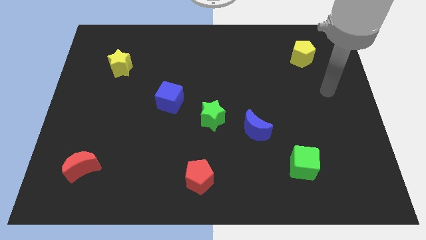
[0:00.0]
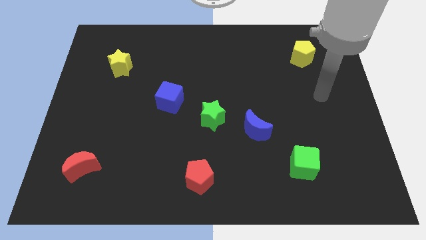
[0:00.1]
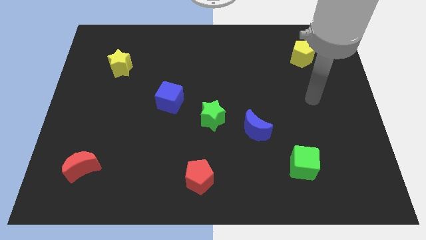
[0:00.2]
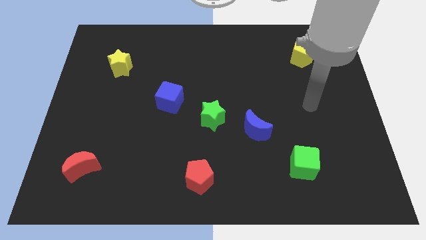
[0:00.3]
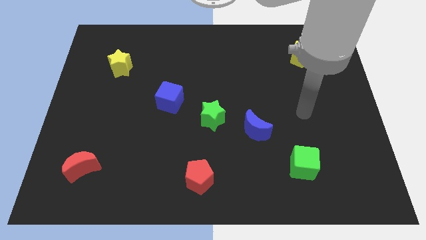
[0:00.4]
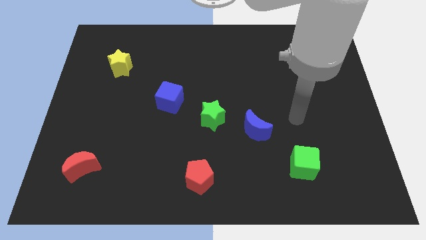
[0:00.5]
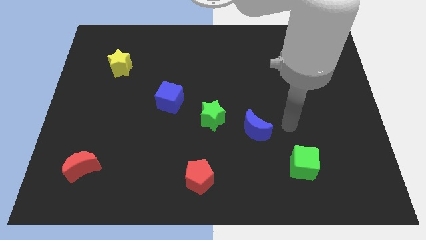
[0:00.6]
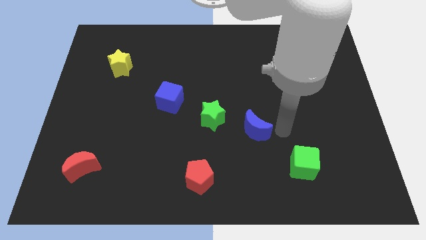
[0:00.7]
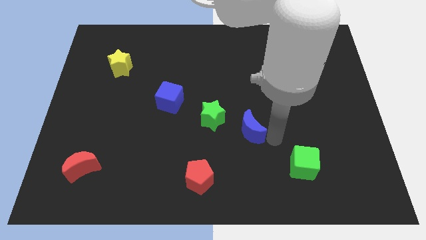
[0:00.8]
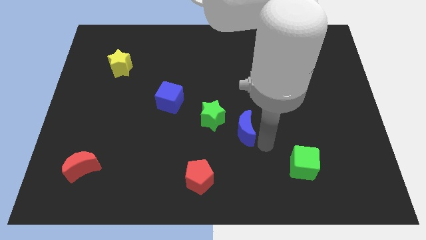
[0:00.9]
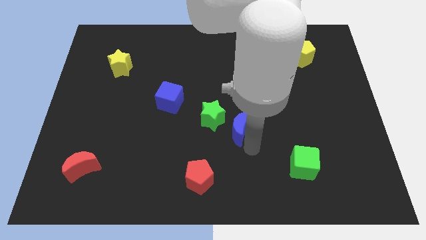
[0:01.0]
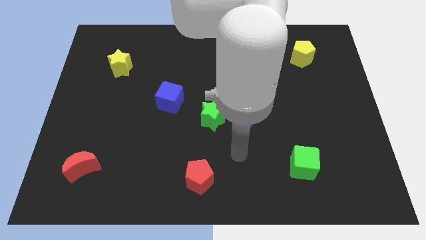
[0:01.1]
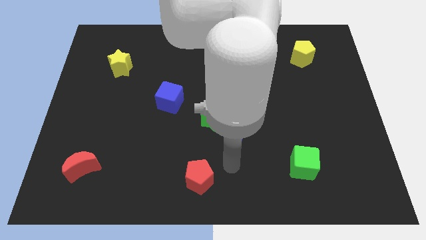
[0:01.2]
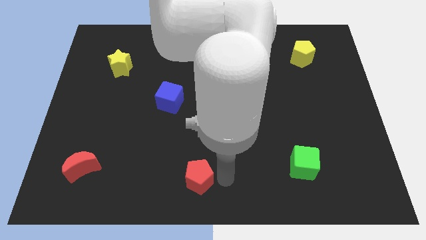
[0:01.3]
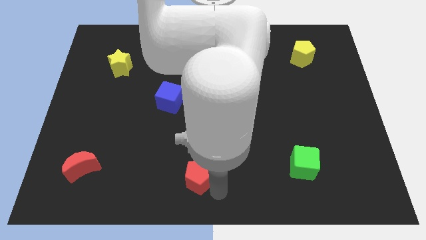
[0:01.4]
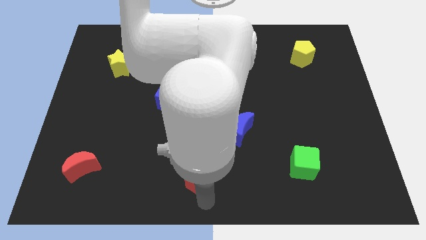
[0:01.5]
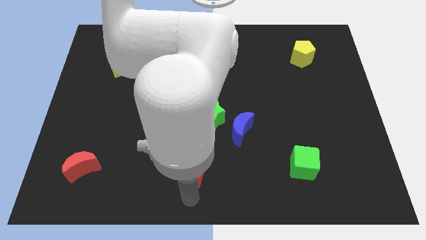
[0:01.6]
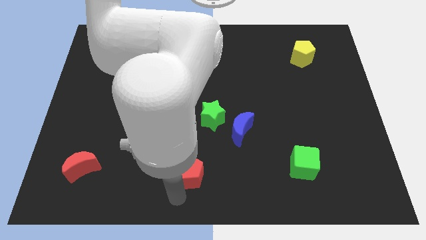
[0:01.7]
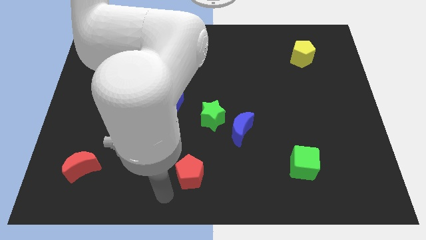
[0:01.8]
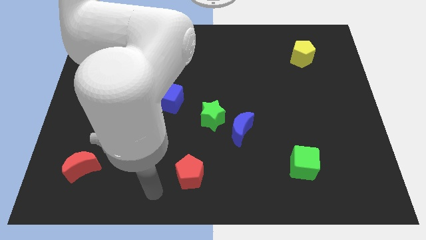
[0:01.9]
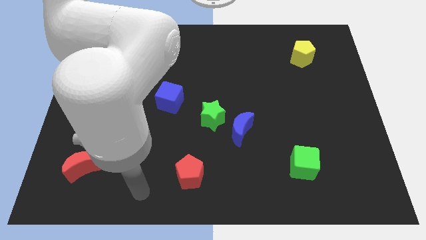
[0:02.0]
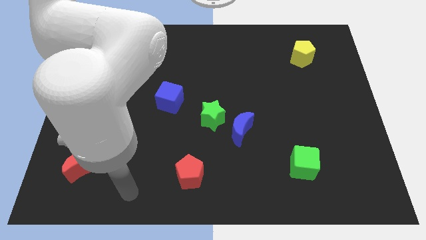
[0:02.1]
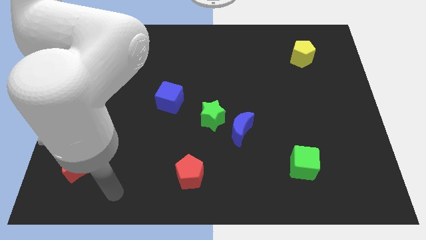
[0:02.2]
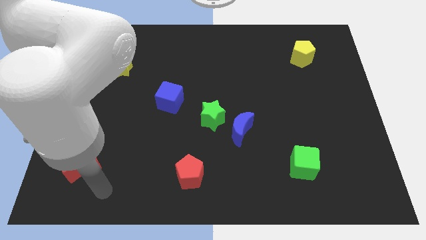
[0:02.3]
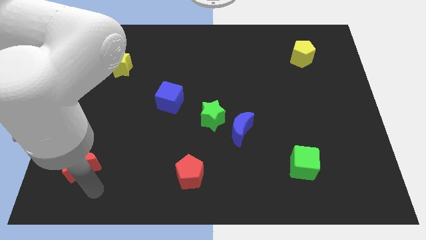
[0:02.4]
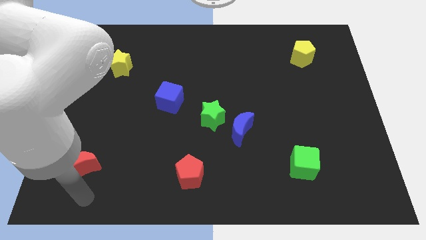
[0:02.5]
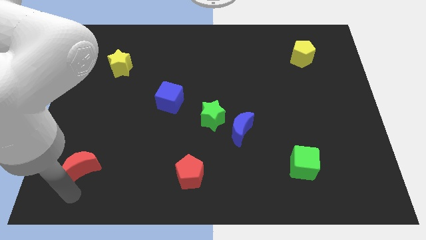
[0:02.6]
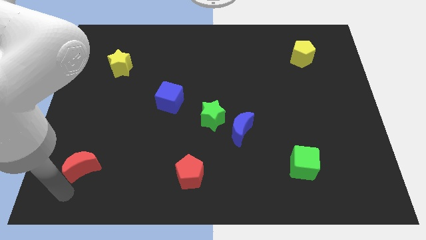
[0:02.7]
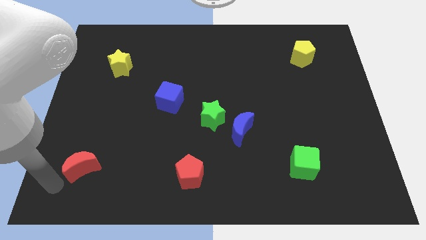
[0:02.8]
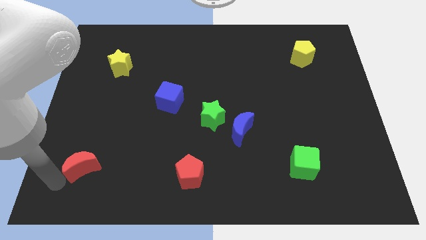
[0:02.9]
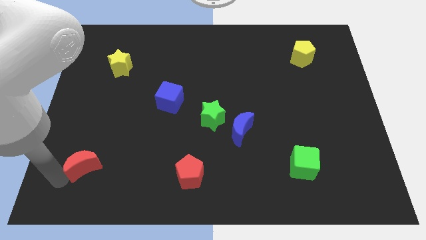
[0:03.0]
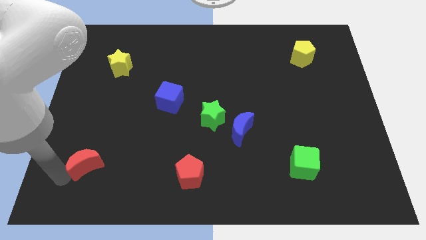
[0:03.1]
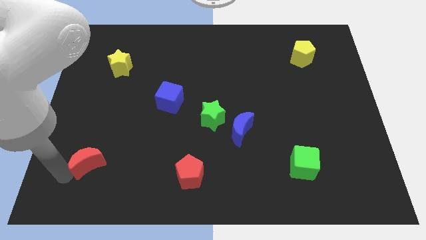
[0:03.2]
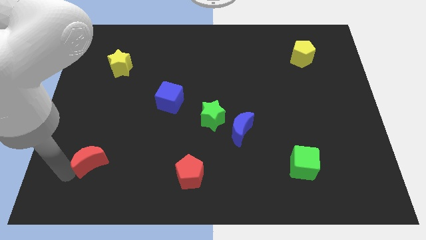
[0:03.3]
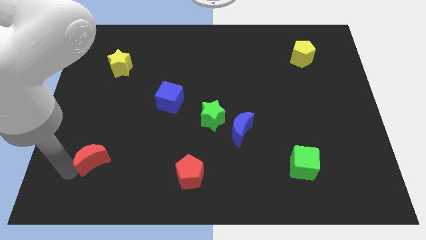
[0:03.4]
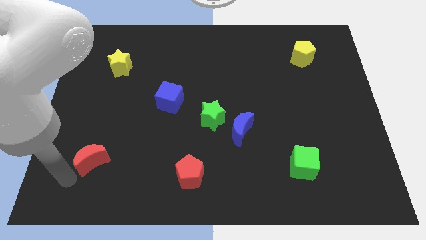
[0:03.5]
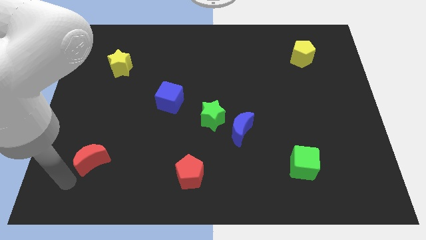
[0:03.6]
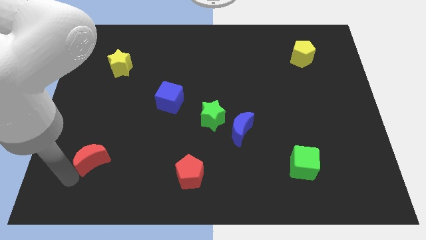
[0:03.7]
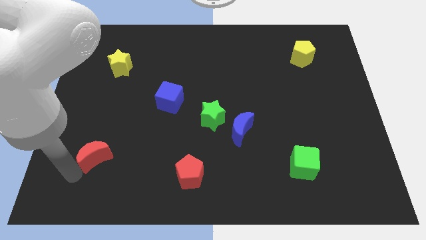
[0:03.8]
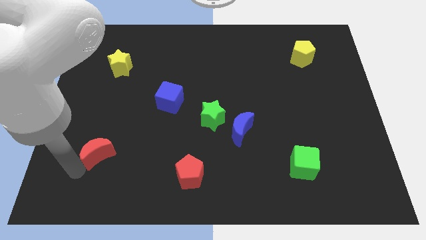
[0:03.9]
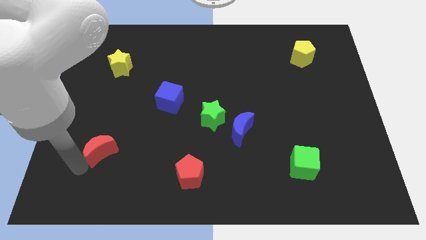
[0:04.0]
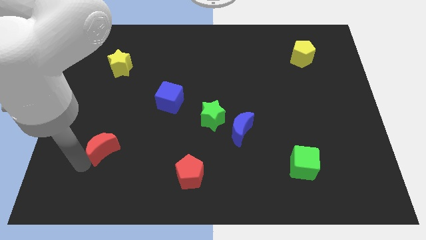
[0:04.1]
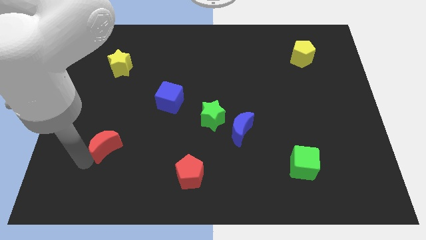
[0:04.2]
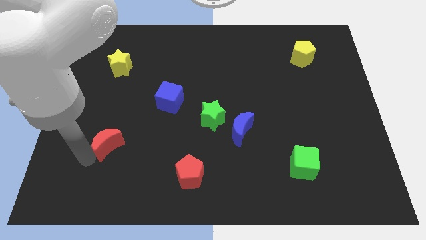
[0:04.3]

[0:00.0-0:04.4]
move the red moon a bit upwards and then to the right

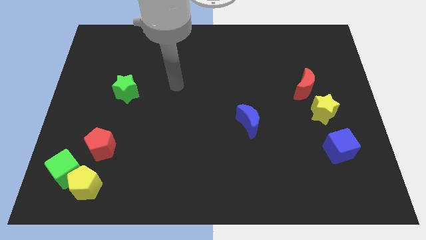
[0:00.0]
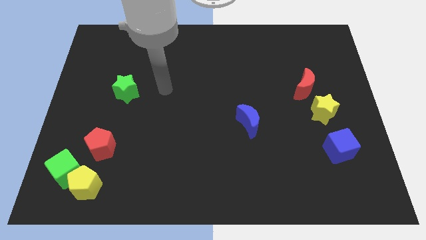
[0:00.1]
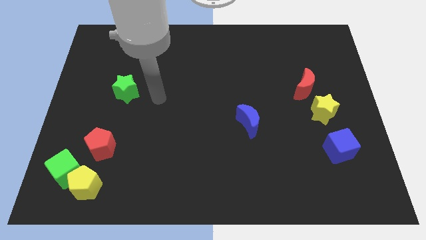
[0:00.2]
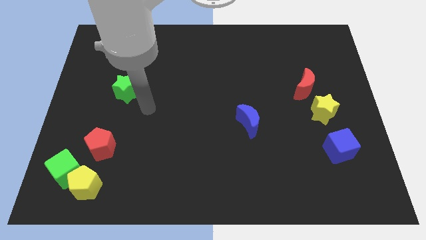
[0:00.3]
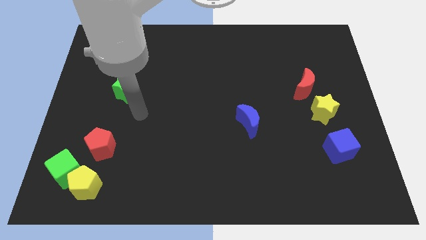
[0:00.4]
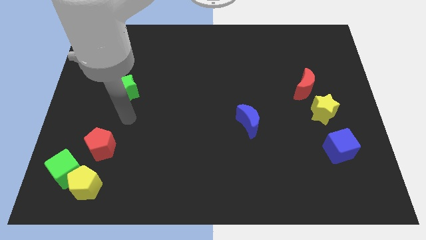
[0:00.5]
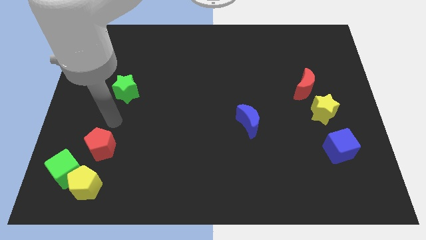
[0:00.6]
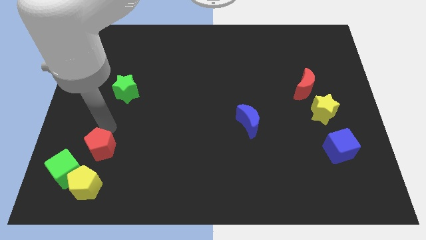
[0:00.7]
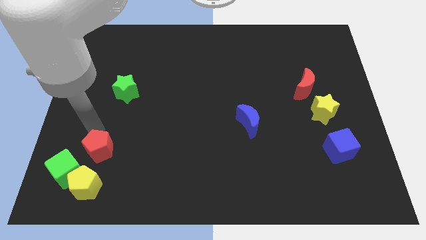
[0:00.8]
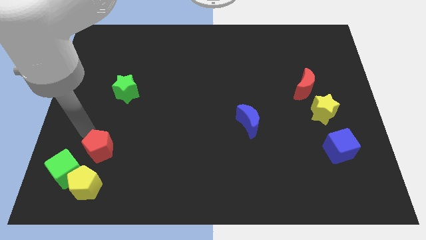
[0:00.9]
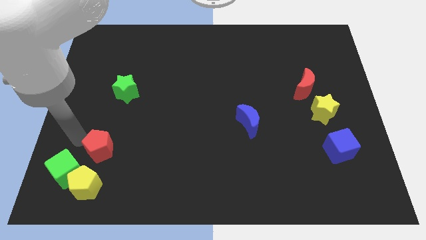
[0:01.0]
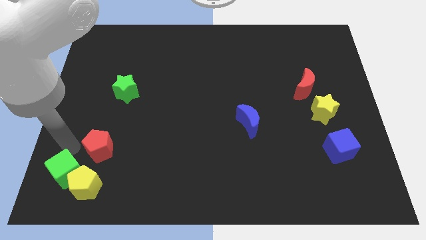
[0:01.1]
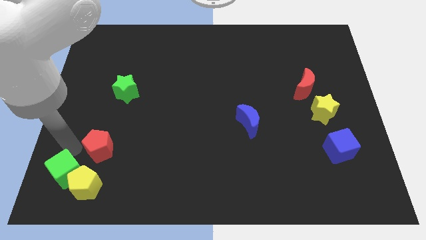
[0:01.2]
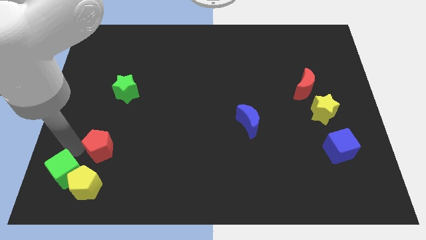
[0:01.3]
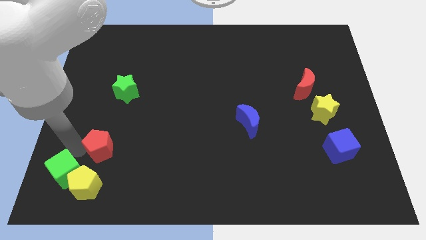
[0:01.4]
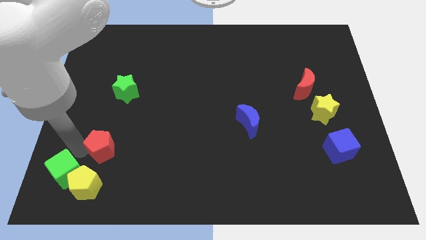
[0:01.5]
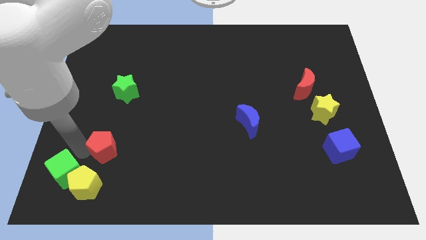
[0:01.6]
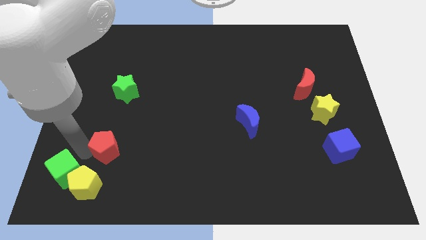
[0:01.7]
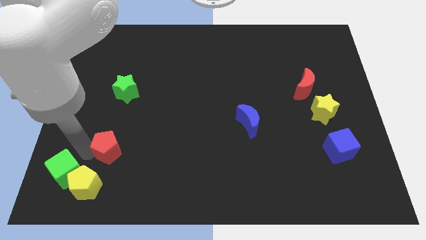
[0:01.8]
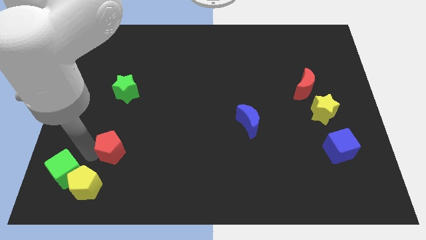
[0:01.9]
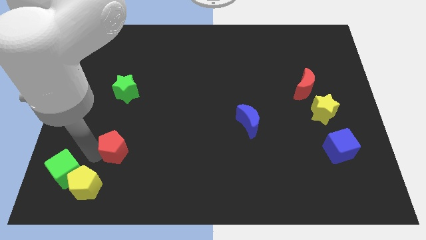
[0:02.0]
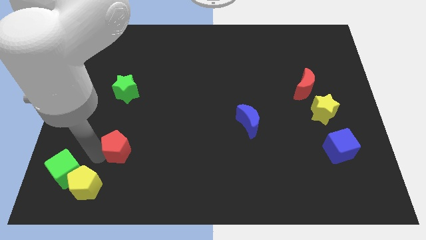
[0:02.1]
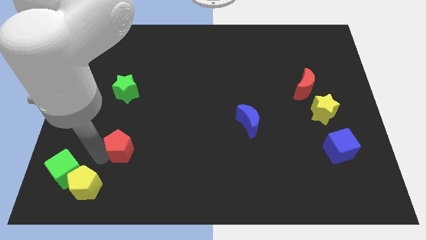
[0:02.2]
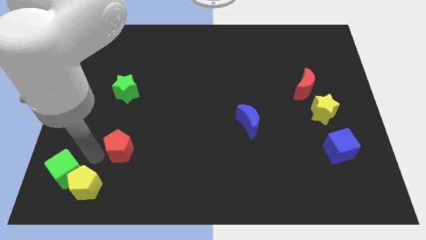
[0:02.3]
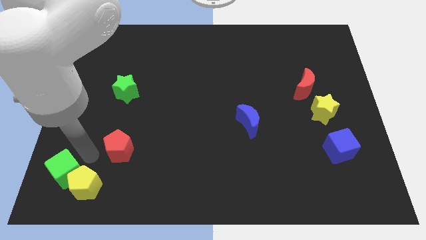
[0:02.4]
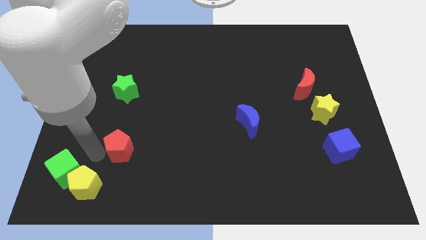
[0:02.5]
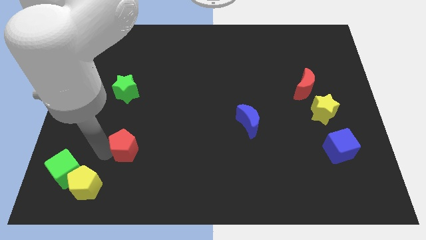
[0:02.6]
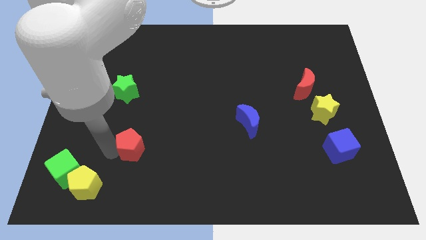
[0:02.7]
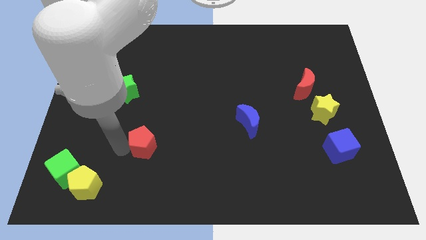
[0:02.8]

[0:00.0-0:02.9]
move the red pentagon a bit right

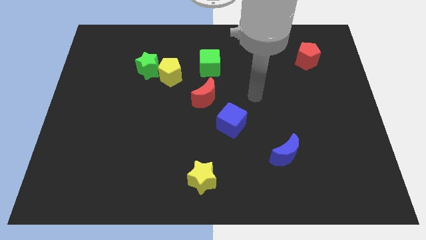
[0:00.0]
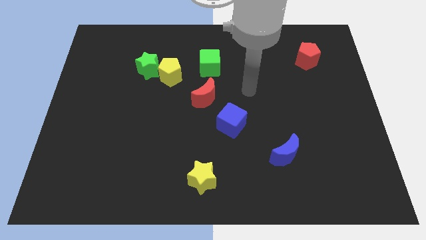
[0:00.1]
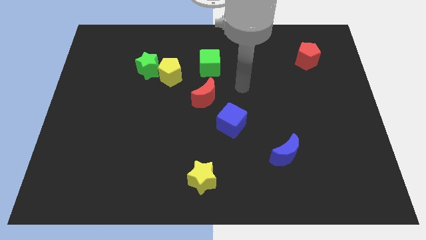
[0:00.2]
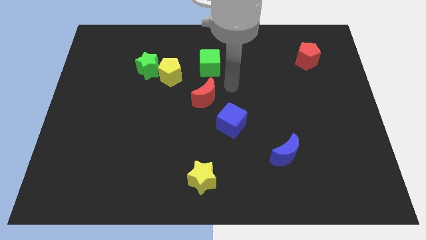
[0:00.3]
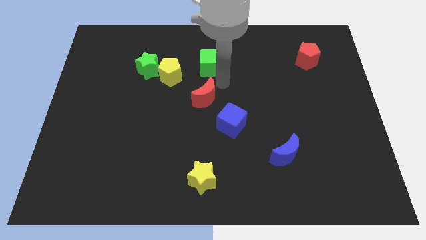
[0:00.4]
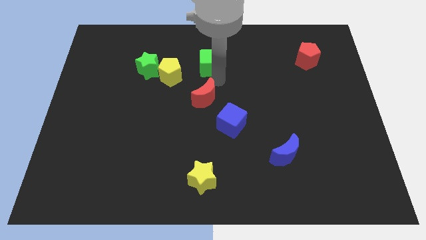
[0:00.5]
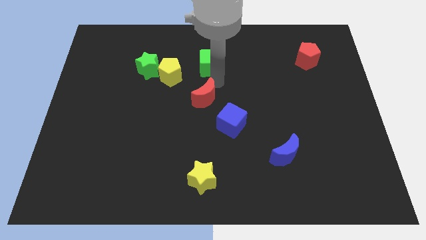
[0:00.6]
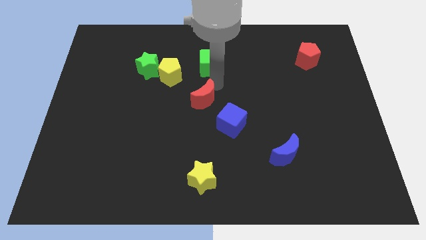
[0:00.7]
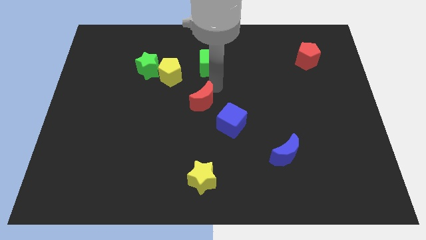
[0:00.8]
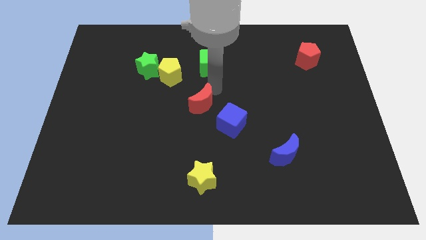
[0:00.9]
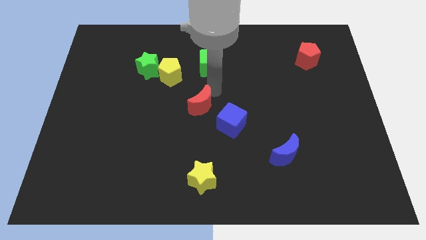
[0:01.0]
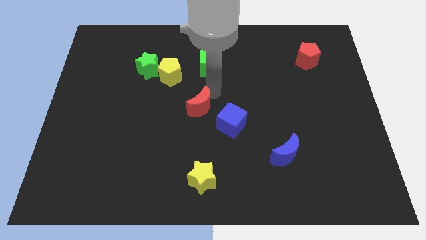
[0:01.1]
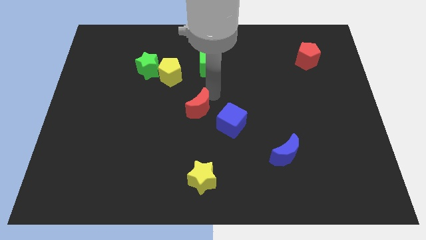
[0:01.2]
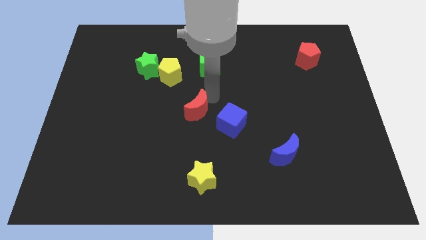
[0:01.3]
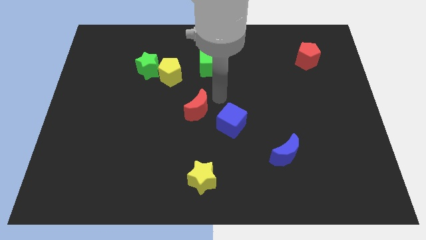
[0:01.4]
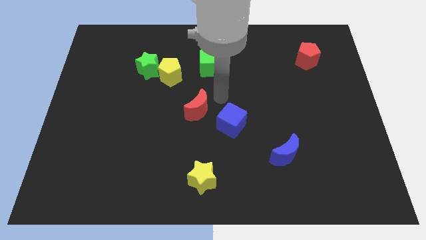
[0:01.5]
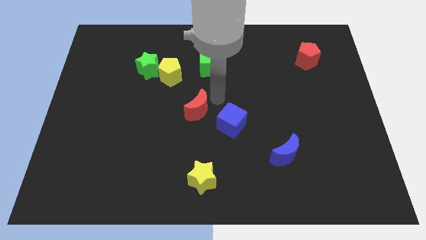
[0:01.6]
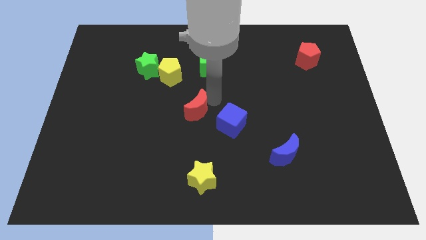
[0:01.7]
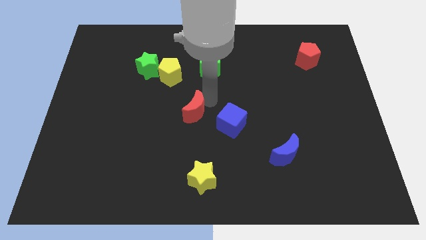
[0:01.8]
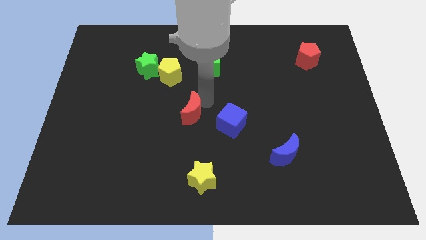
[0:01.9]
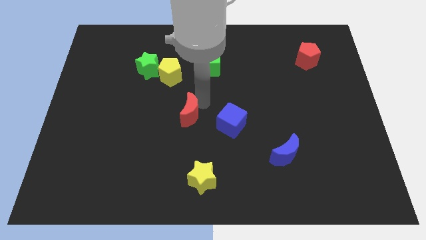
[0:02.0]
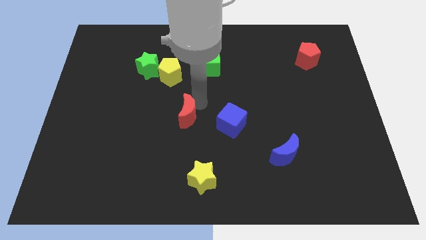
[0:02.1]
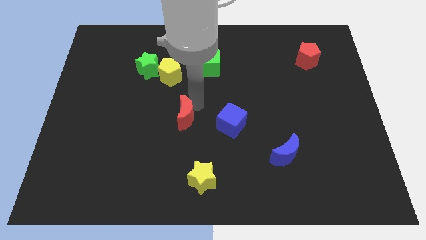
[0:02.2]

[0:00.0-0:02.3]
slightly move the red moon down and then to the left
